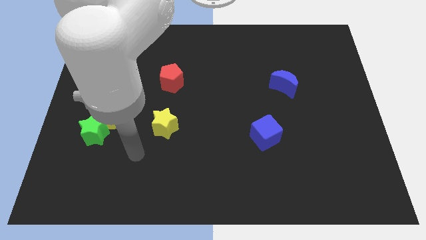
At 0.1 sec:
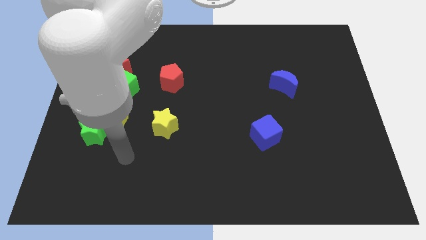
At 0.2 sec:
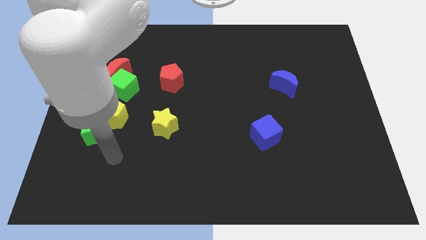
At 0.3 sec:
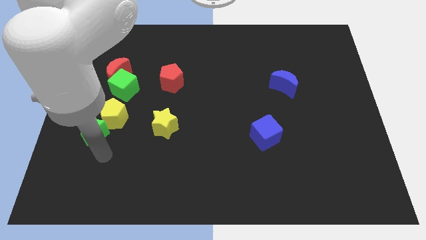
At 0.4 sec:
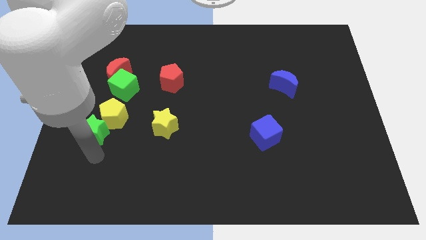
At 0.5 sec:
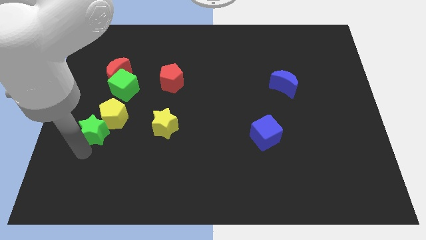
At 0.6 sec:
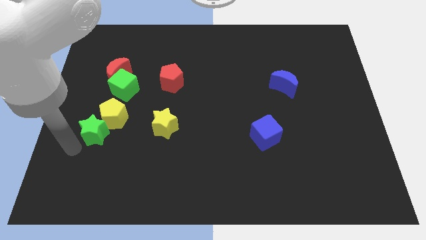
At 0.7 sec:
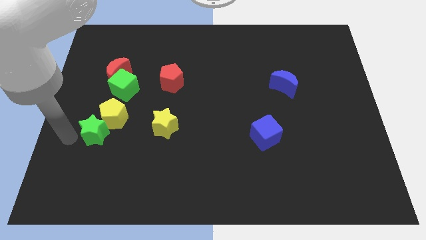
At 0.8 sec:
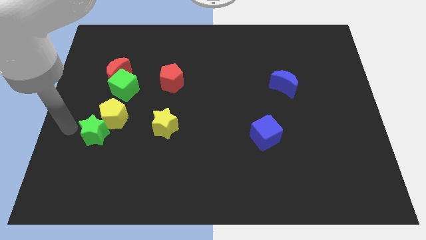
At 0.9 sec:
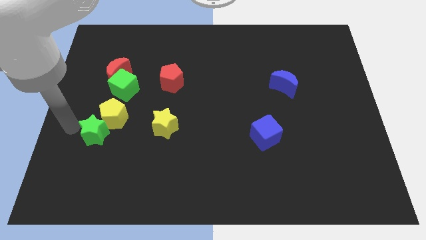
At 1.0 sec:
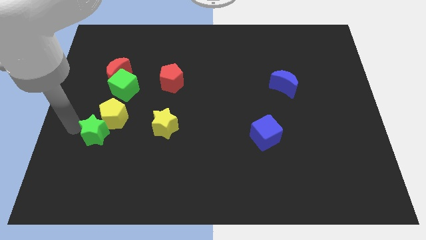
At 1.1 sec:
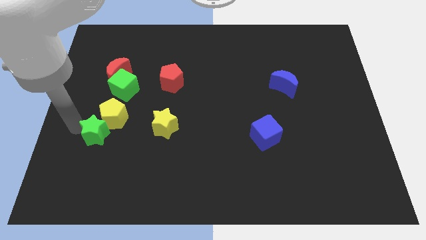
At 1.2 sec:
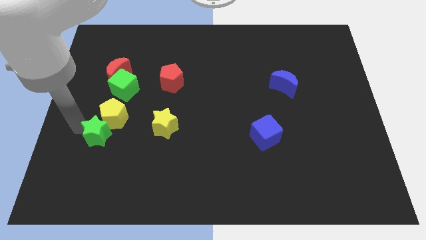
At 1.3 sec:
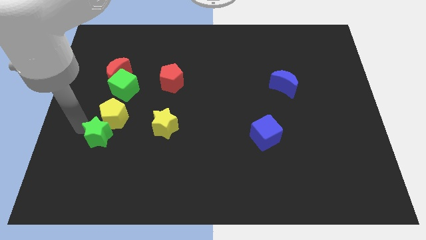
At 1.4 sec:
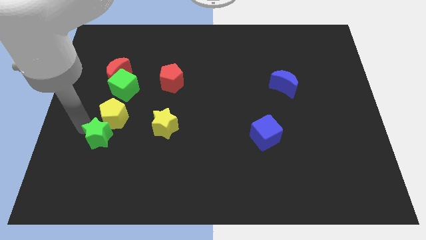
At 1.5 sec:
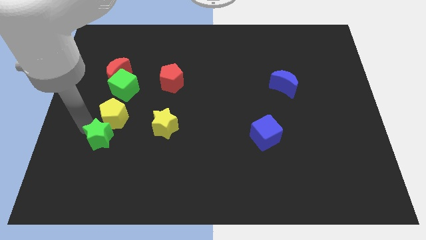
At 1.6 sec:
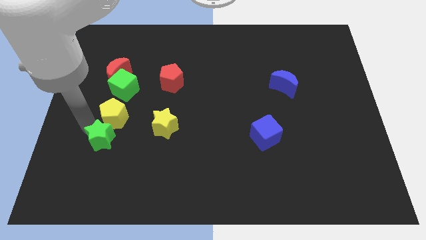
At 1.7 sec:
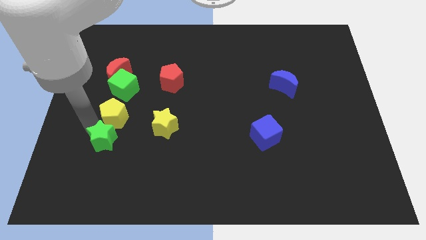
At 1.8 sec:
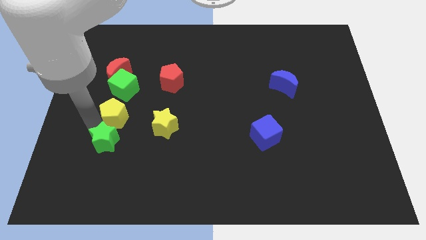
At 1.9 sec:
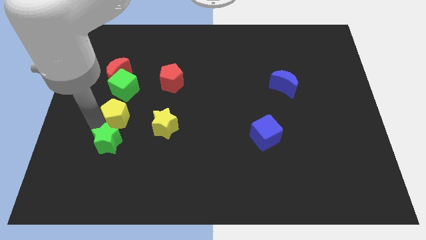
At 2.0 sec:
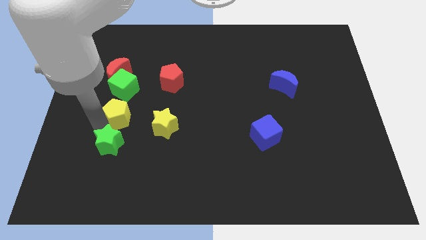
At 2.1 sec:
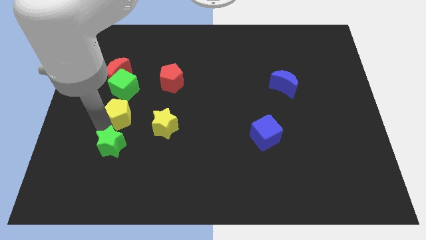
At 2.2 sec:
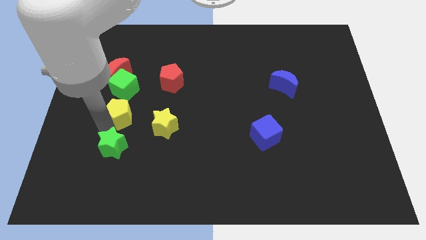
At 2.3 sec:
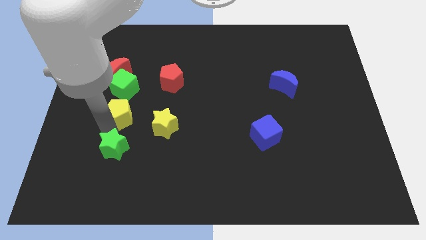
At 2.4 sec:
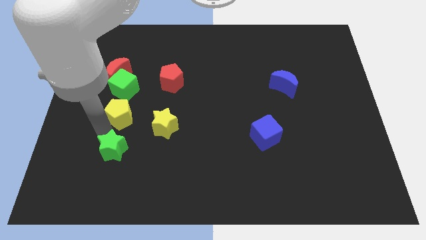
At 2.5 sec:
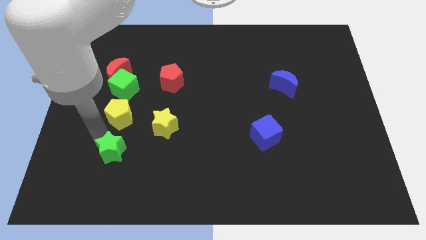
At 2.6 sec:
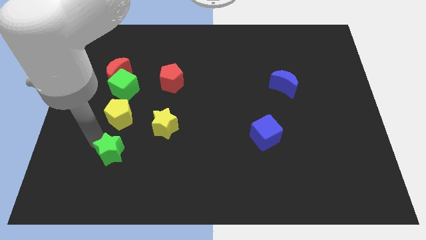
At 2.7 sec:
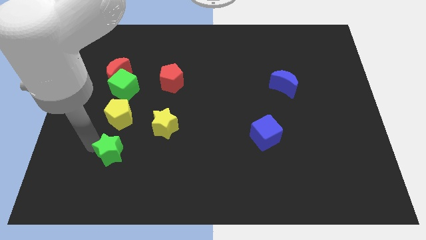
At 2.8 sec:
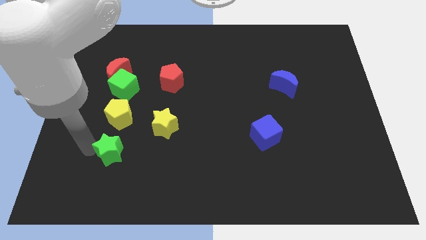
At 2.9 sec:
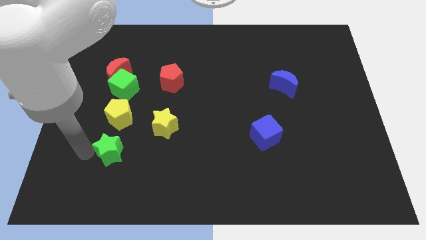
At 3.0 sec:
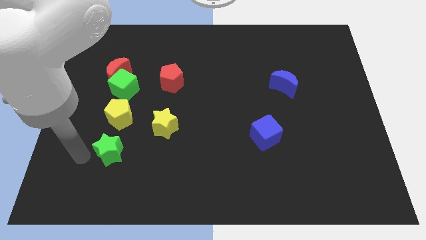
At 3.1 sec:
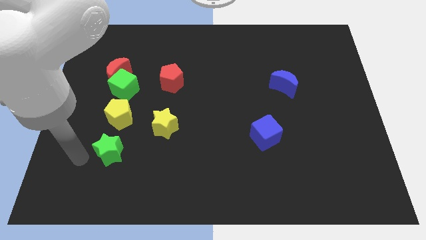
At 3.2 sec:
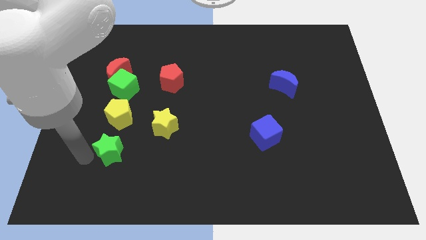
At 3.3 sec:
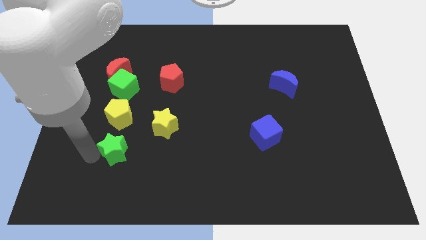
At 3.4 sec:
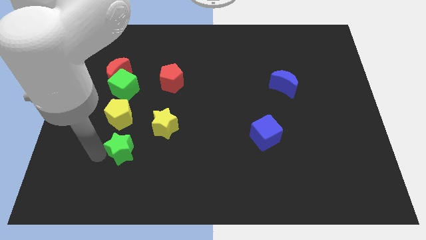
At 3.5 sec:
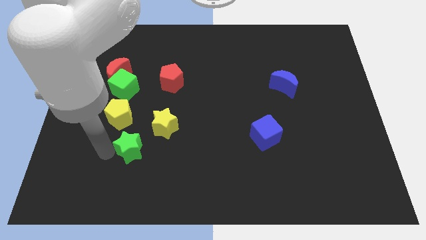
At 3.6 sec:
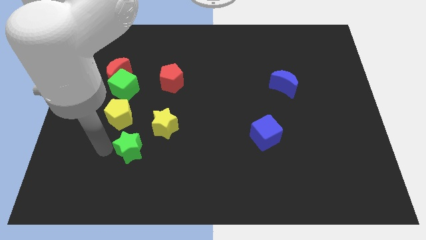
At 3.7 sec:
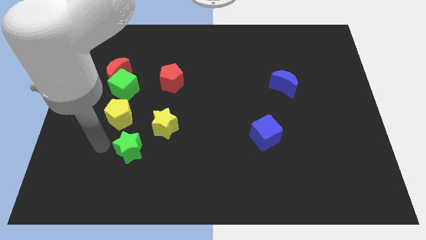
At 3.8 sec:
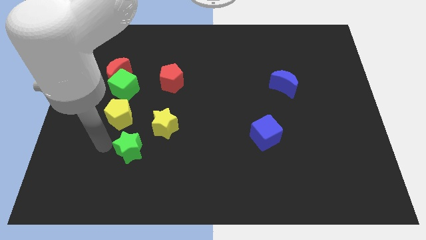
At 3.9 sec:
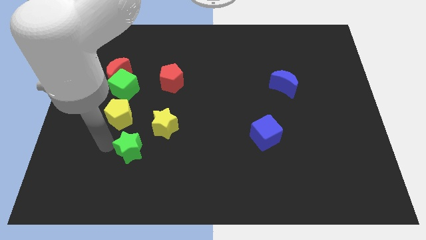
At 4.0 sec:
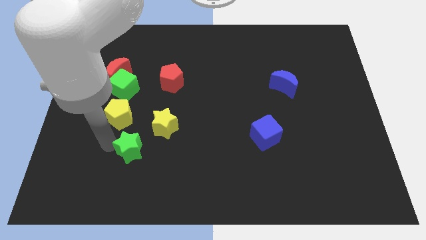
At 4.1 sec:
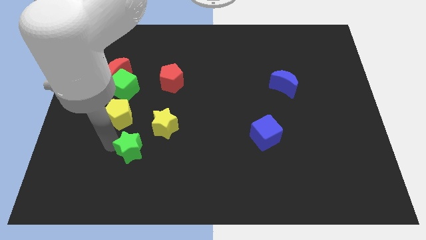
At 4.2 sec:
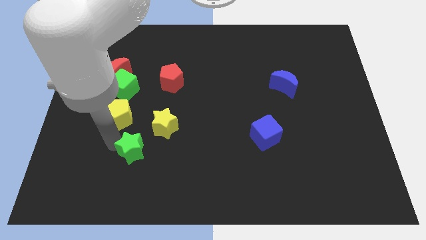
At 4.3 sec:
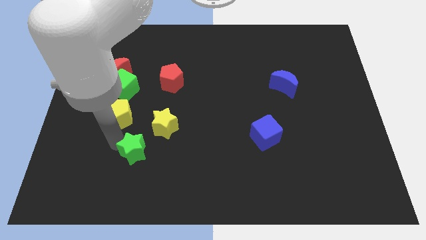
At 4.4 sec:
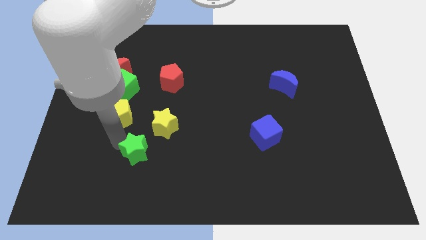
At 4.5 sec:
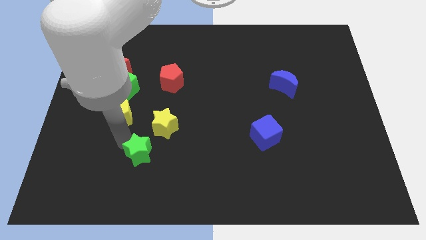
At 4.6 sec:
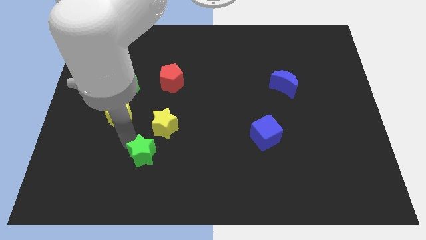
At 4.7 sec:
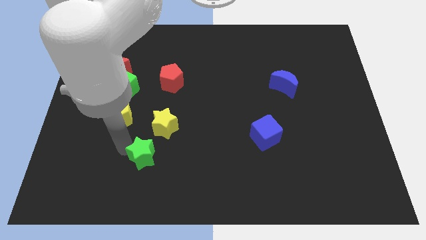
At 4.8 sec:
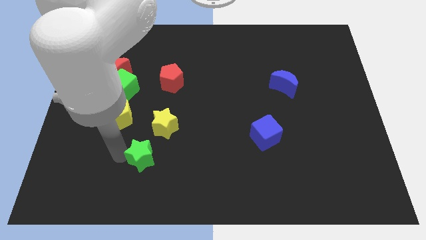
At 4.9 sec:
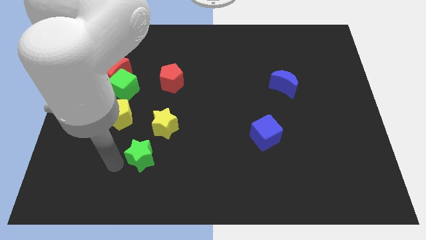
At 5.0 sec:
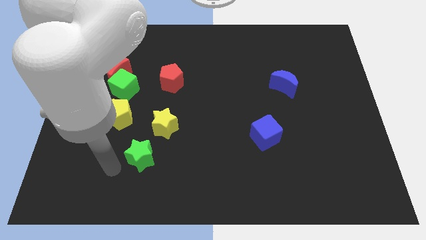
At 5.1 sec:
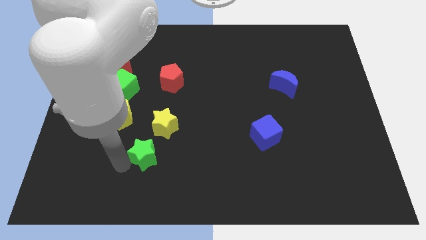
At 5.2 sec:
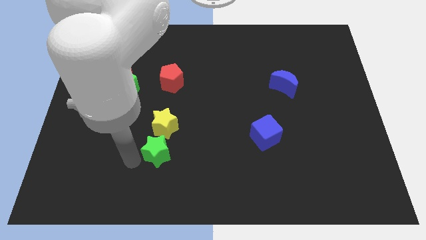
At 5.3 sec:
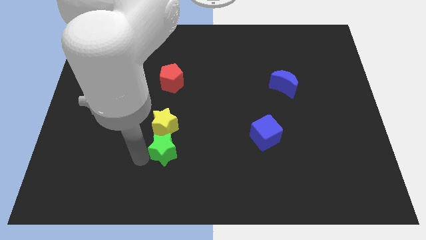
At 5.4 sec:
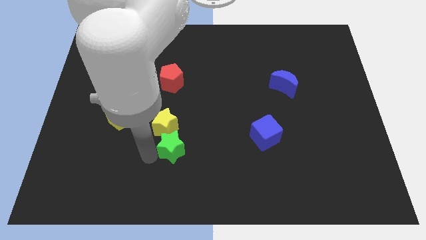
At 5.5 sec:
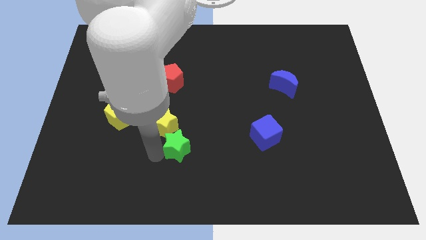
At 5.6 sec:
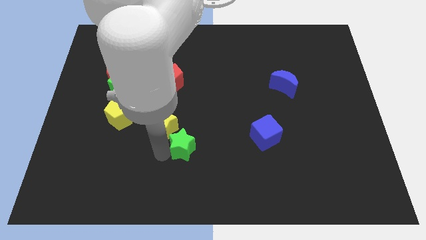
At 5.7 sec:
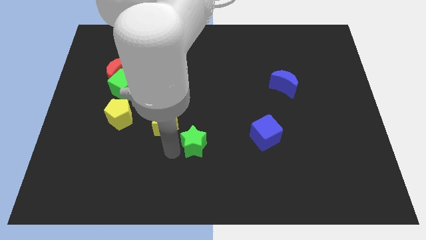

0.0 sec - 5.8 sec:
slide the green star to the right

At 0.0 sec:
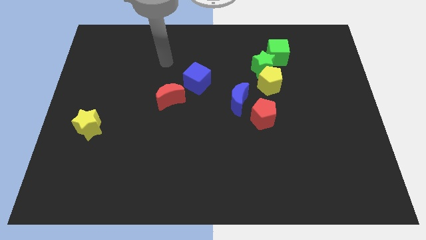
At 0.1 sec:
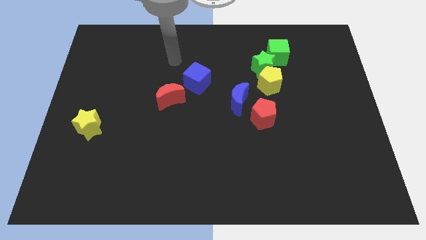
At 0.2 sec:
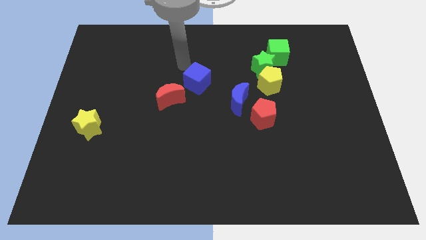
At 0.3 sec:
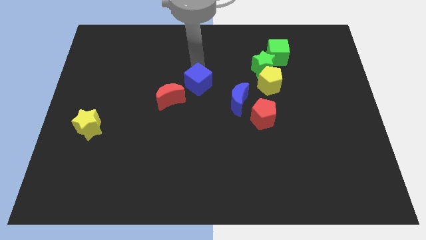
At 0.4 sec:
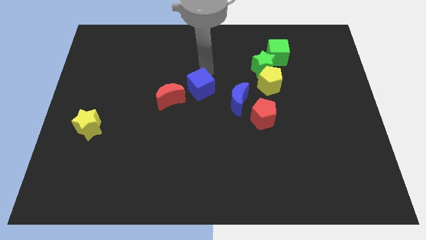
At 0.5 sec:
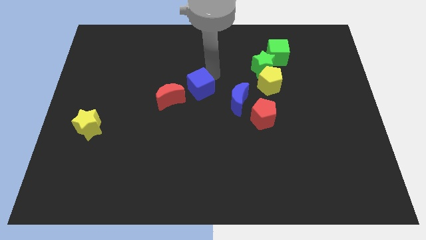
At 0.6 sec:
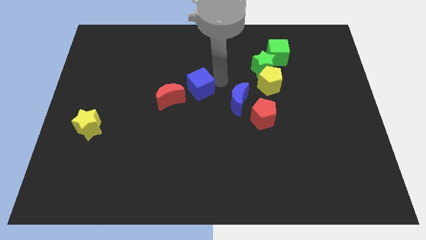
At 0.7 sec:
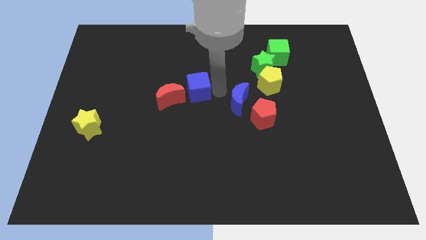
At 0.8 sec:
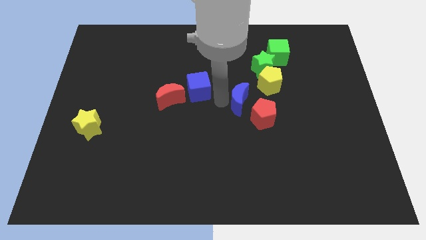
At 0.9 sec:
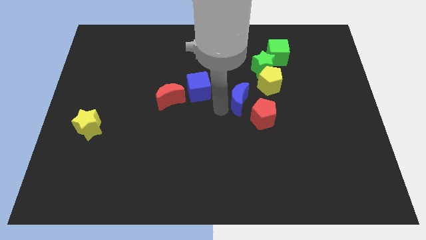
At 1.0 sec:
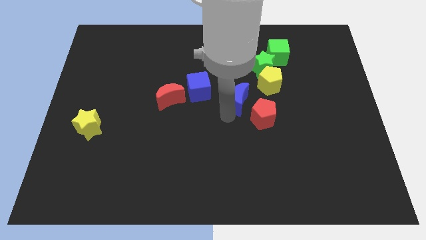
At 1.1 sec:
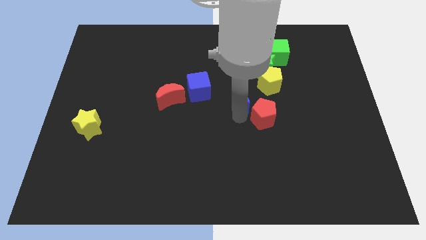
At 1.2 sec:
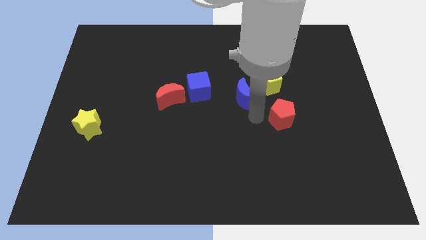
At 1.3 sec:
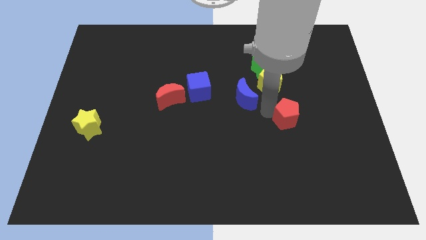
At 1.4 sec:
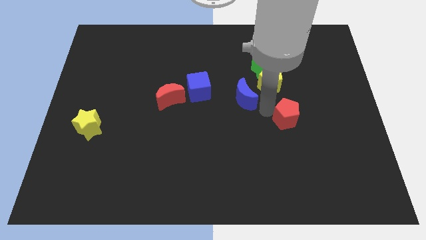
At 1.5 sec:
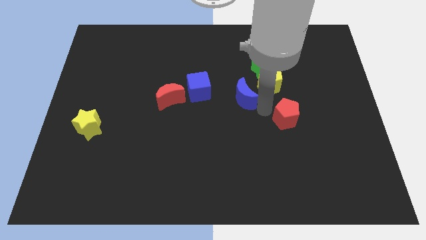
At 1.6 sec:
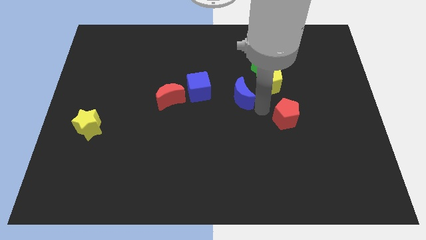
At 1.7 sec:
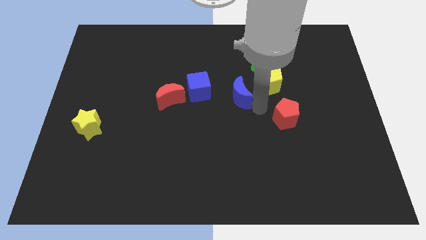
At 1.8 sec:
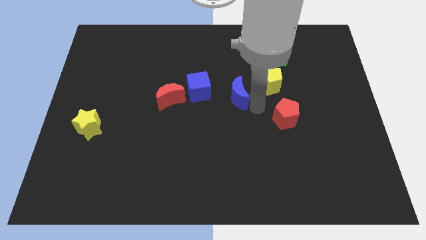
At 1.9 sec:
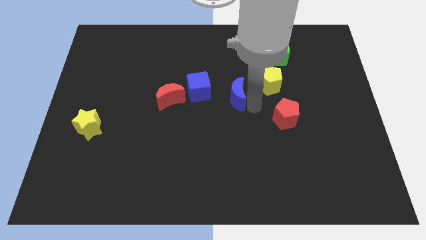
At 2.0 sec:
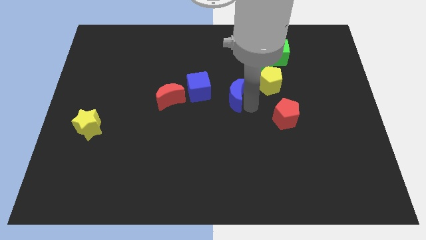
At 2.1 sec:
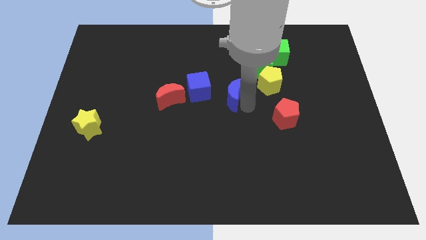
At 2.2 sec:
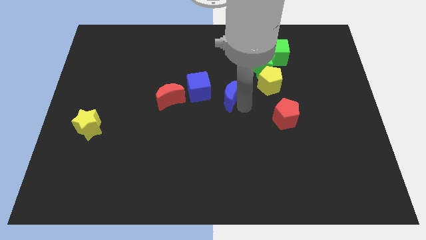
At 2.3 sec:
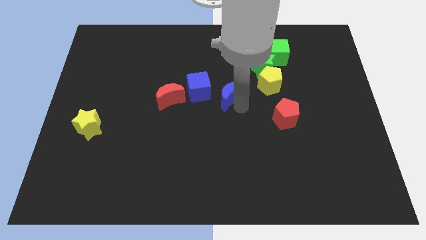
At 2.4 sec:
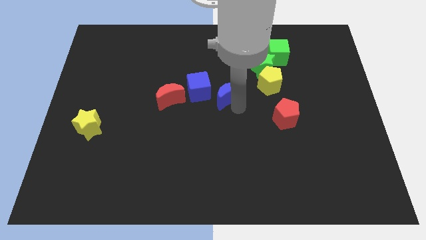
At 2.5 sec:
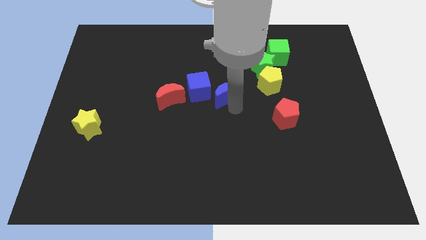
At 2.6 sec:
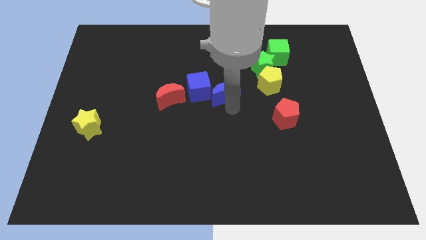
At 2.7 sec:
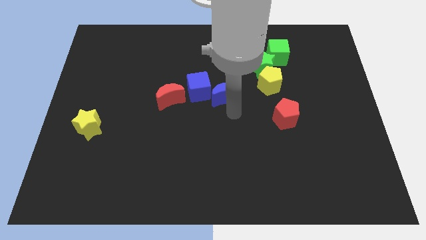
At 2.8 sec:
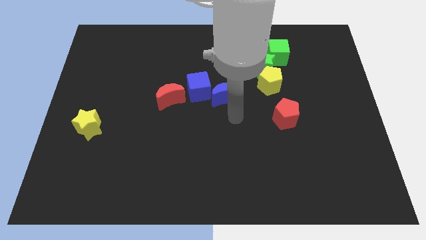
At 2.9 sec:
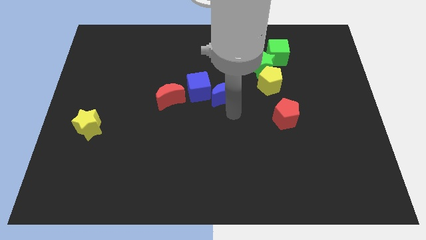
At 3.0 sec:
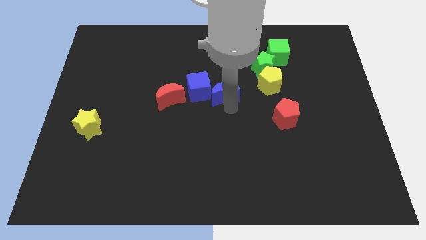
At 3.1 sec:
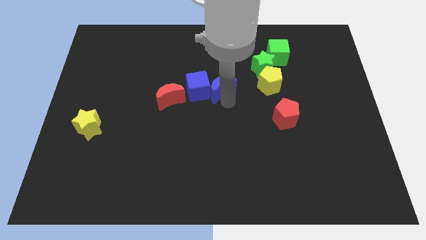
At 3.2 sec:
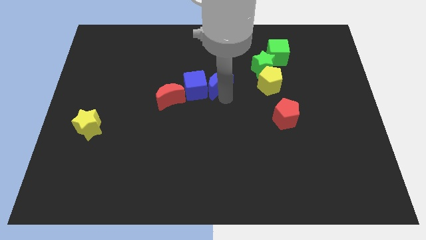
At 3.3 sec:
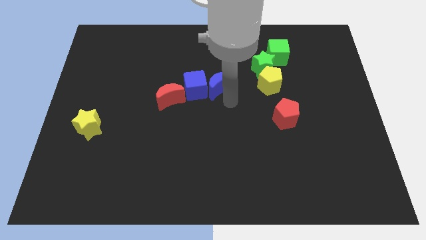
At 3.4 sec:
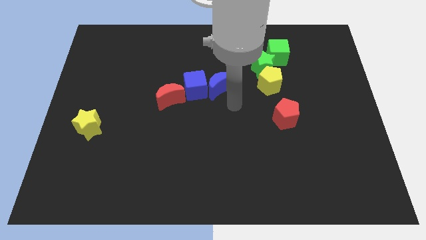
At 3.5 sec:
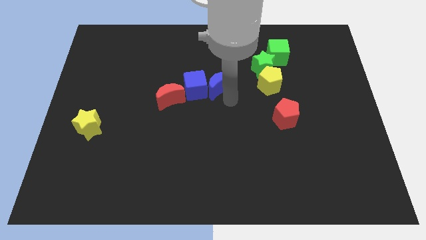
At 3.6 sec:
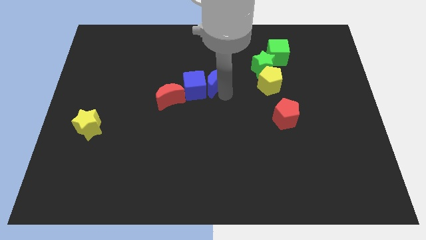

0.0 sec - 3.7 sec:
push the blue moon a bit up and then to the left
